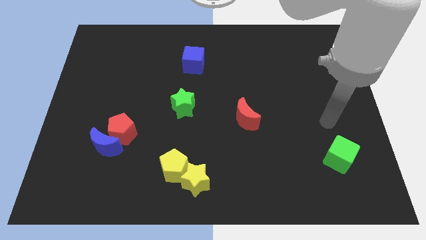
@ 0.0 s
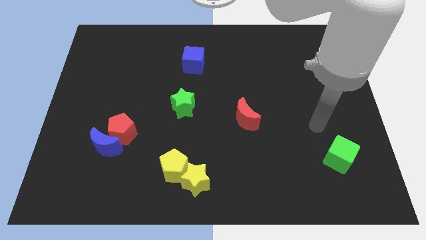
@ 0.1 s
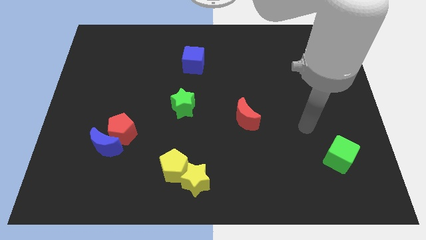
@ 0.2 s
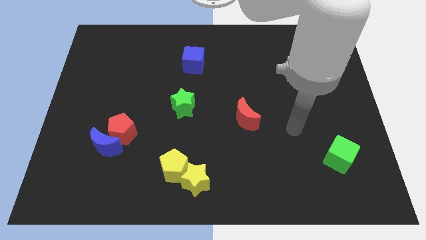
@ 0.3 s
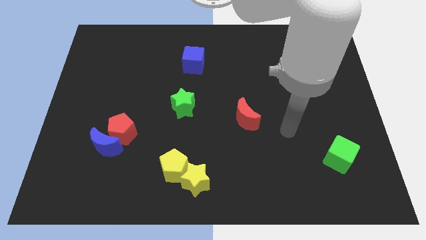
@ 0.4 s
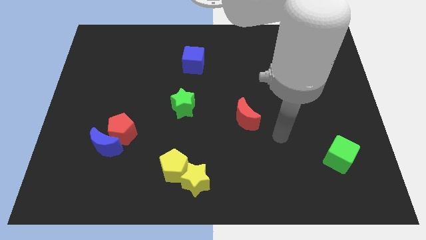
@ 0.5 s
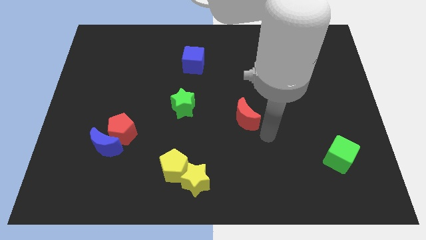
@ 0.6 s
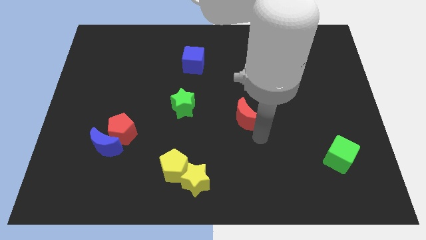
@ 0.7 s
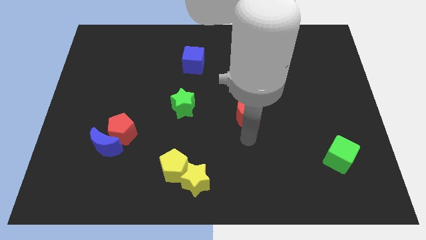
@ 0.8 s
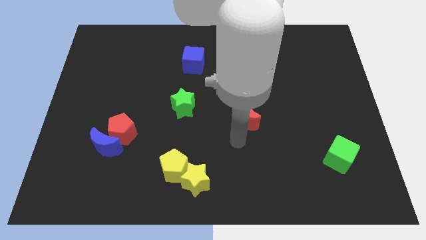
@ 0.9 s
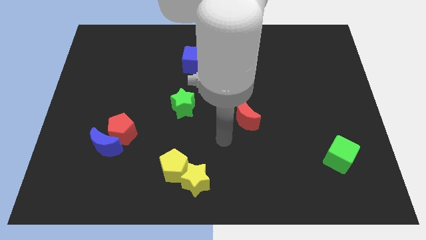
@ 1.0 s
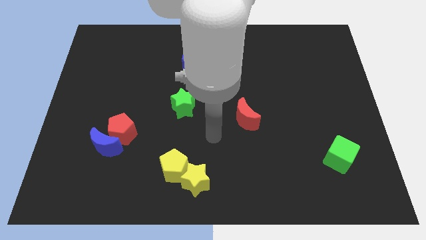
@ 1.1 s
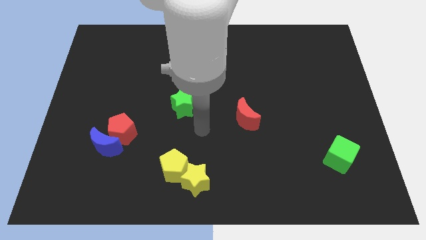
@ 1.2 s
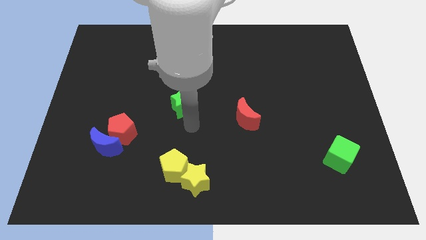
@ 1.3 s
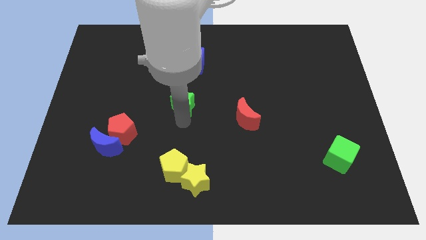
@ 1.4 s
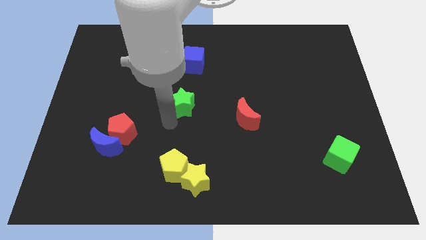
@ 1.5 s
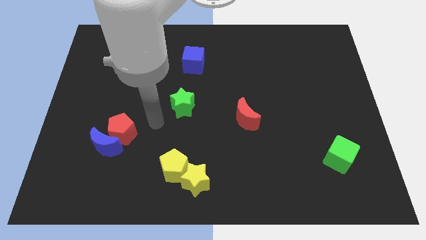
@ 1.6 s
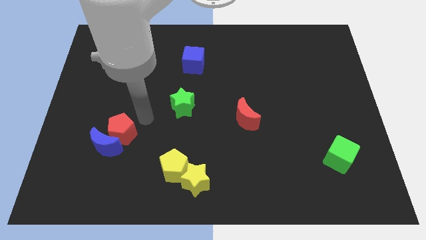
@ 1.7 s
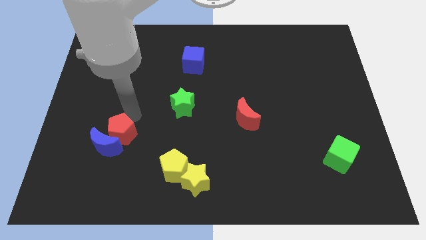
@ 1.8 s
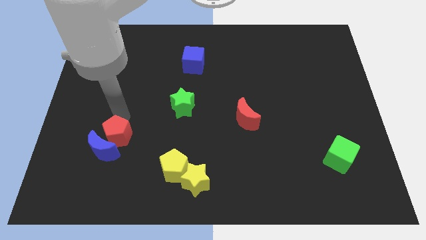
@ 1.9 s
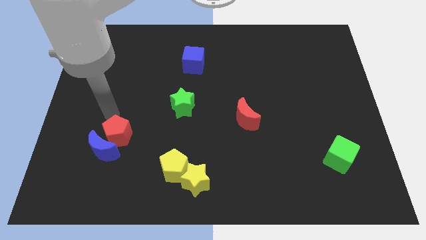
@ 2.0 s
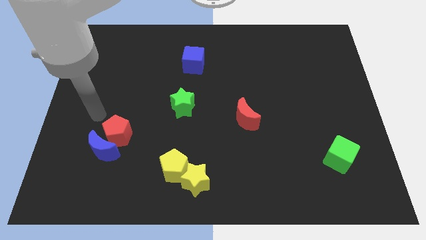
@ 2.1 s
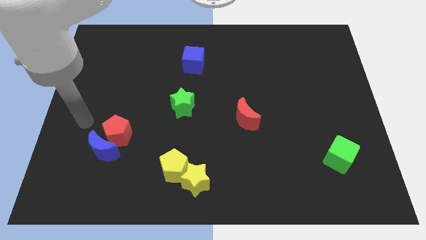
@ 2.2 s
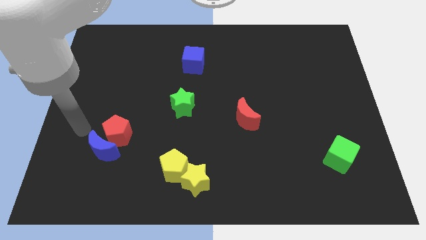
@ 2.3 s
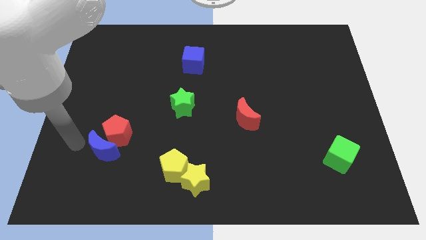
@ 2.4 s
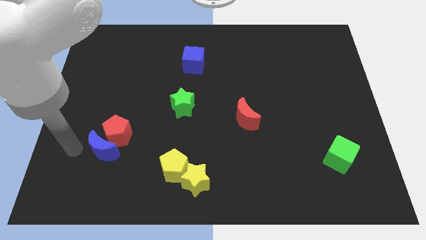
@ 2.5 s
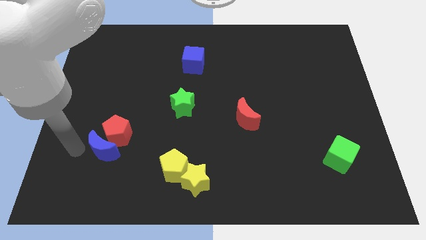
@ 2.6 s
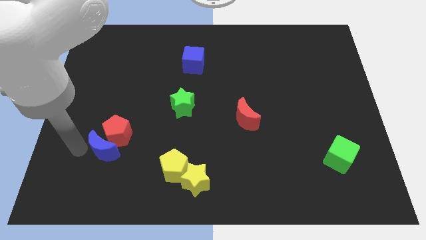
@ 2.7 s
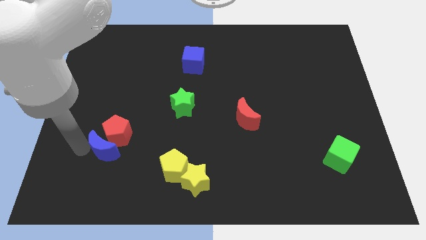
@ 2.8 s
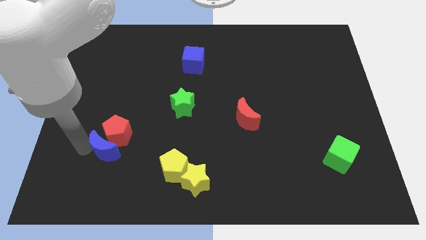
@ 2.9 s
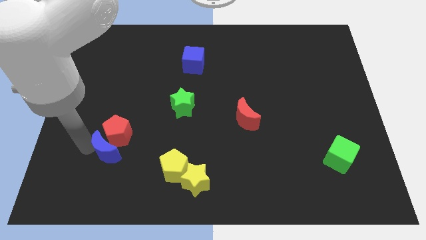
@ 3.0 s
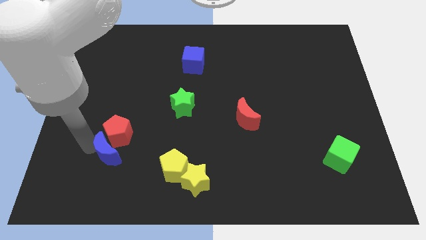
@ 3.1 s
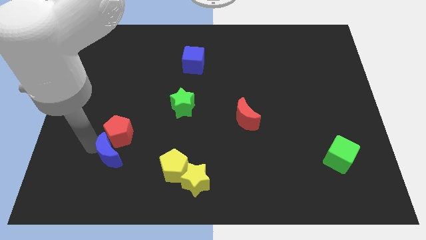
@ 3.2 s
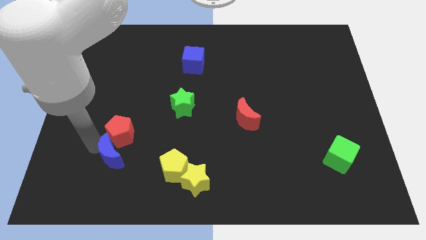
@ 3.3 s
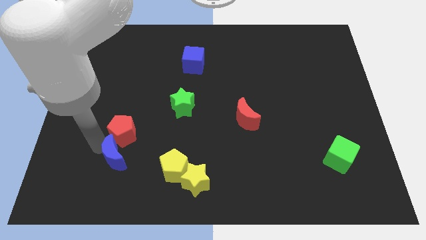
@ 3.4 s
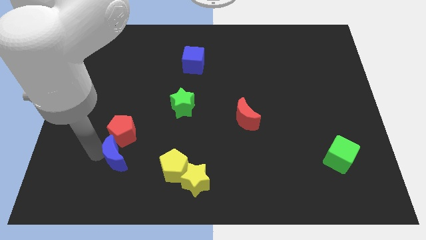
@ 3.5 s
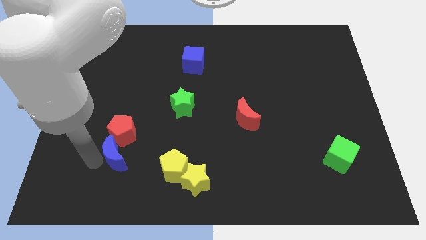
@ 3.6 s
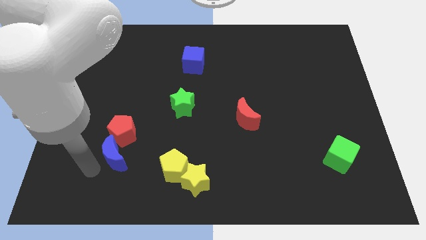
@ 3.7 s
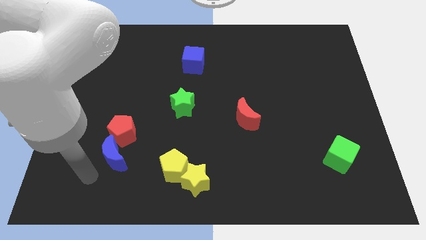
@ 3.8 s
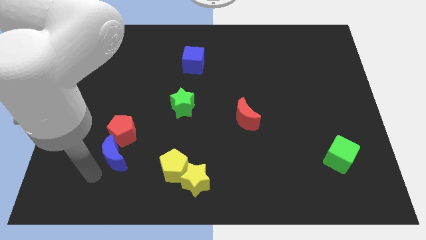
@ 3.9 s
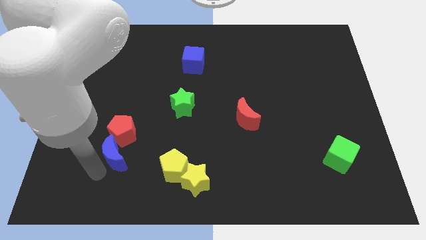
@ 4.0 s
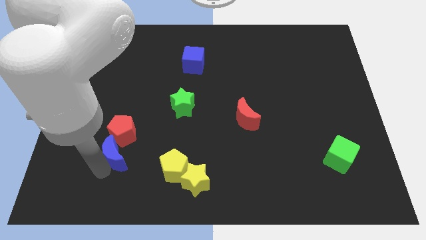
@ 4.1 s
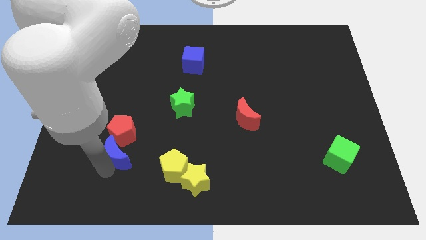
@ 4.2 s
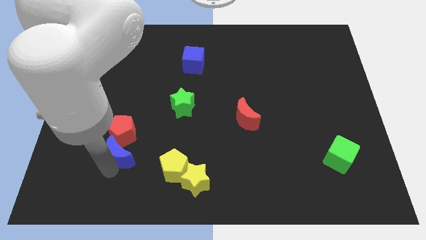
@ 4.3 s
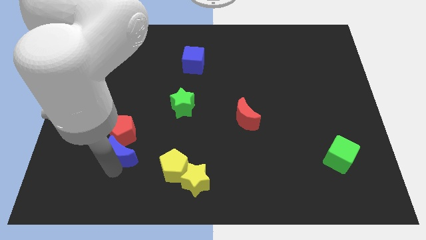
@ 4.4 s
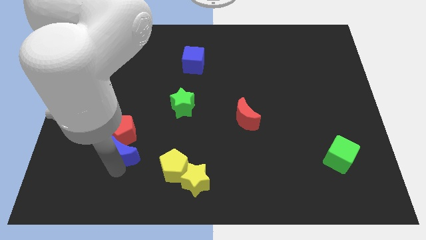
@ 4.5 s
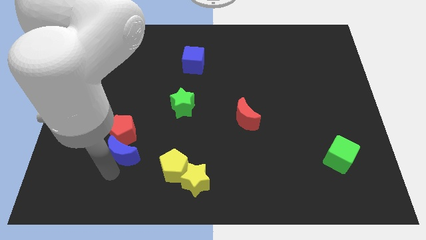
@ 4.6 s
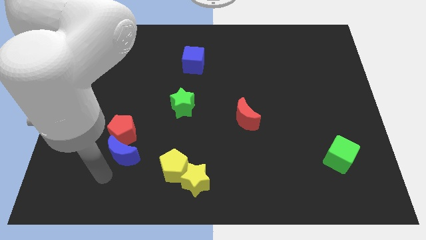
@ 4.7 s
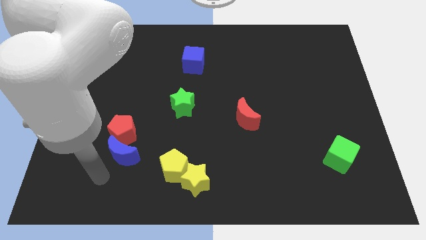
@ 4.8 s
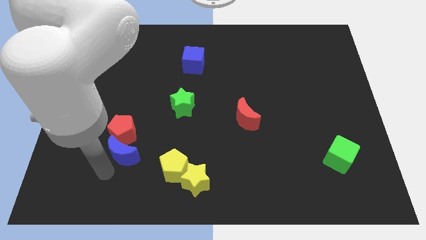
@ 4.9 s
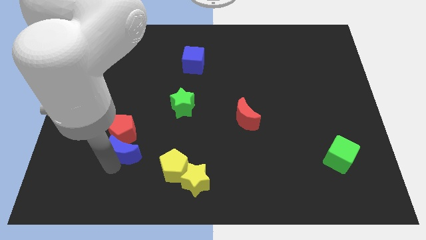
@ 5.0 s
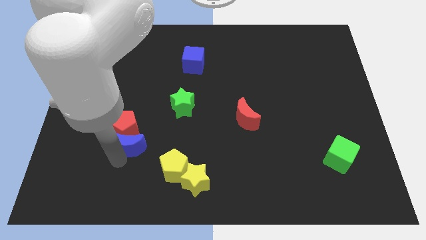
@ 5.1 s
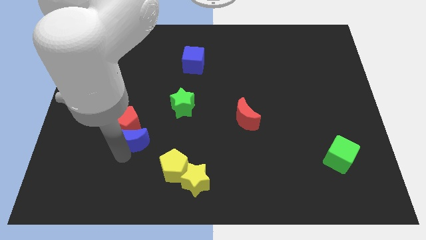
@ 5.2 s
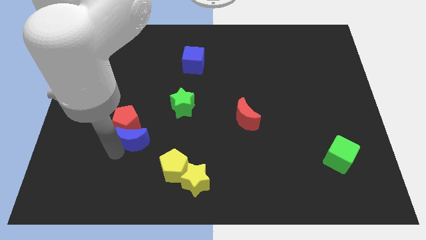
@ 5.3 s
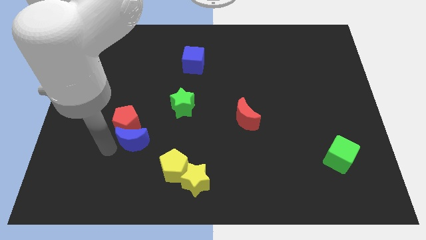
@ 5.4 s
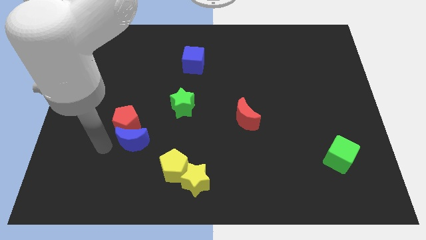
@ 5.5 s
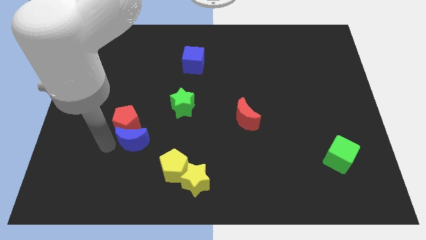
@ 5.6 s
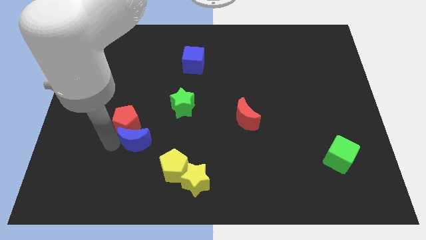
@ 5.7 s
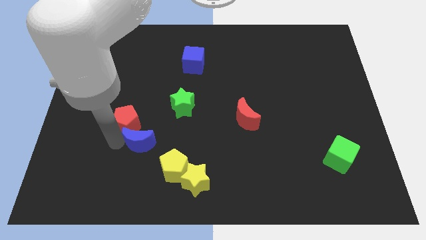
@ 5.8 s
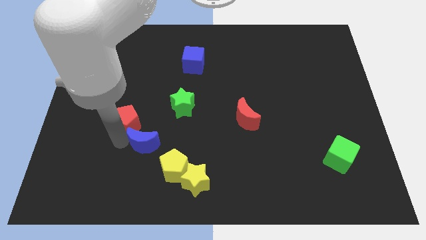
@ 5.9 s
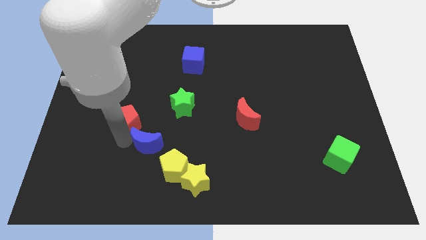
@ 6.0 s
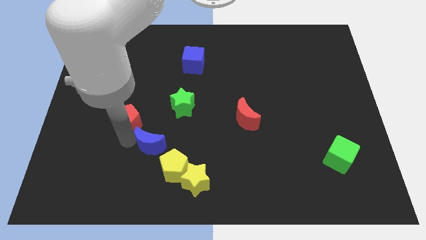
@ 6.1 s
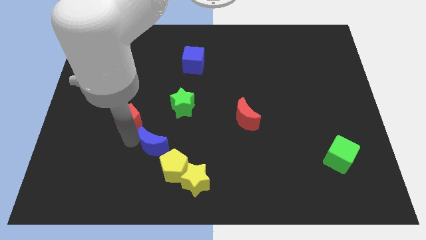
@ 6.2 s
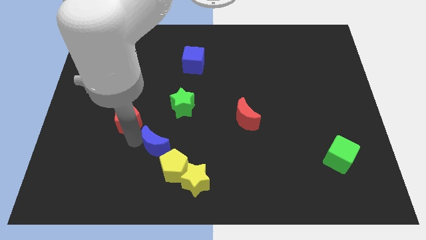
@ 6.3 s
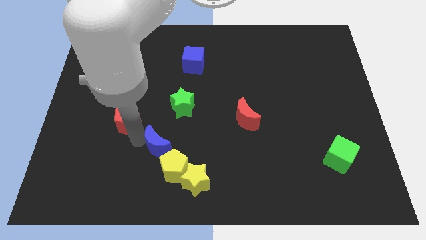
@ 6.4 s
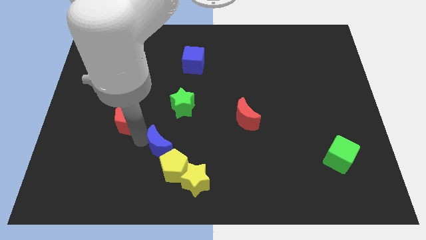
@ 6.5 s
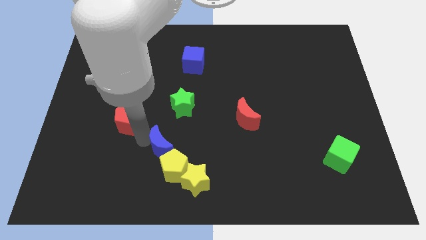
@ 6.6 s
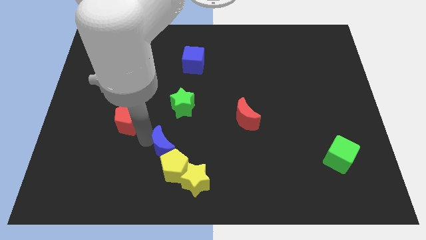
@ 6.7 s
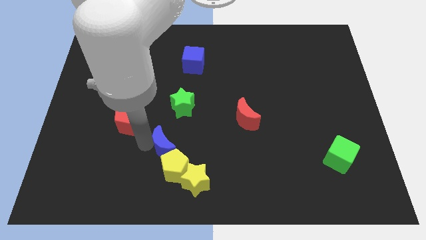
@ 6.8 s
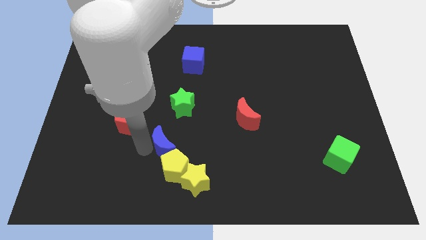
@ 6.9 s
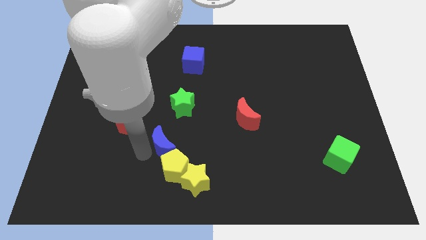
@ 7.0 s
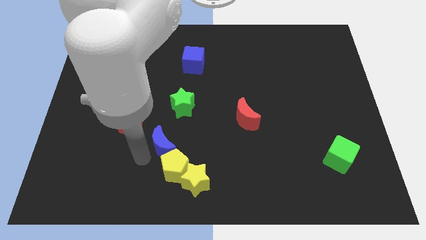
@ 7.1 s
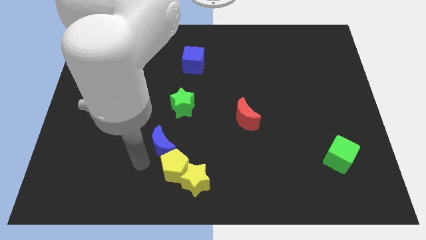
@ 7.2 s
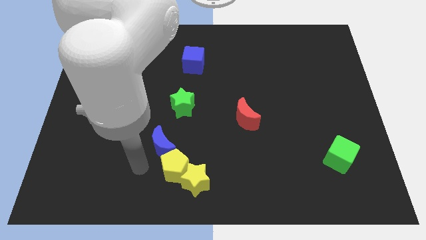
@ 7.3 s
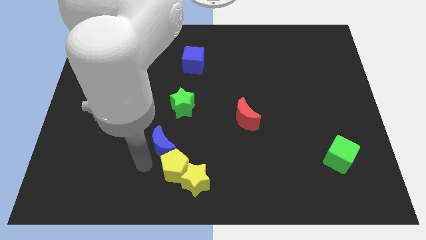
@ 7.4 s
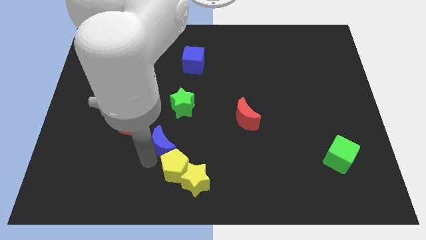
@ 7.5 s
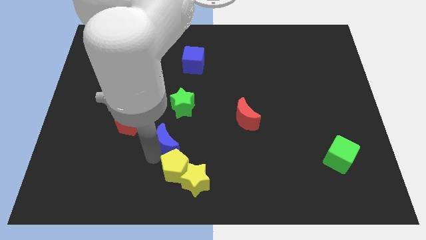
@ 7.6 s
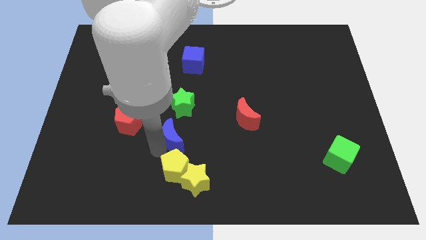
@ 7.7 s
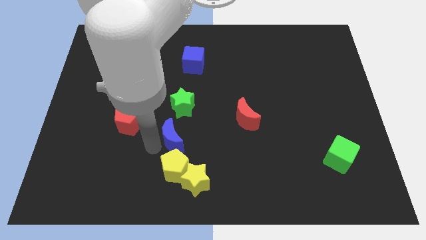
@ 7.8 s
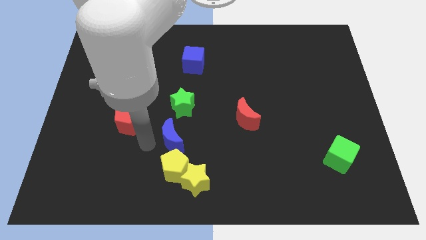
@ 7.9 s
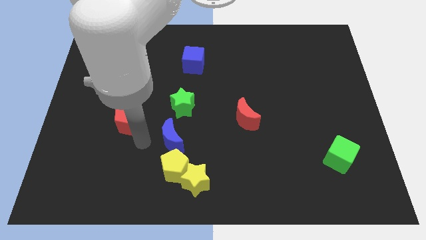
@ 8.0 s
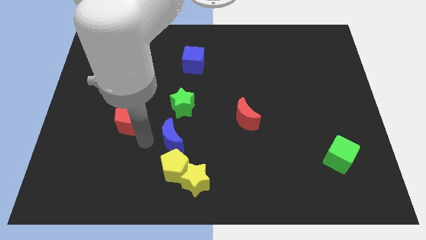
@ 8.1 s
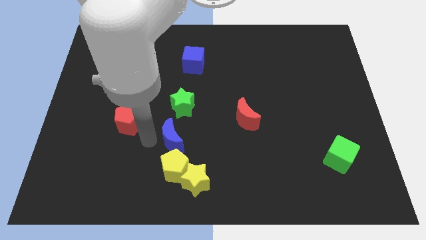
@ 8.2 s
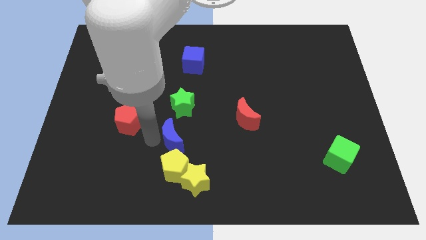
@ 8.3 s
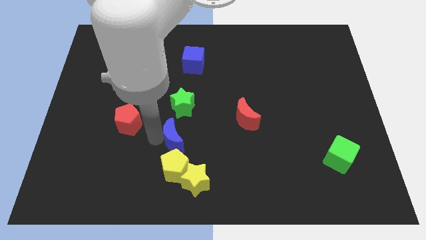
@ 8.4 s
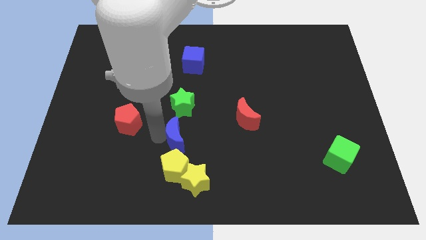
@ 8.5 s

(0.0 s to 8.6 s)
move the blue moon above the yellow star
